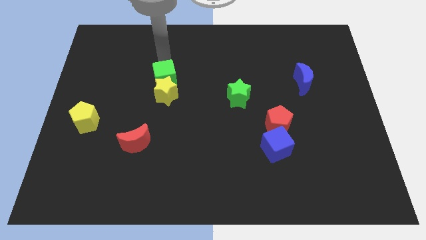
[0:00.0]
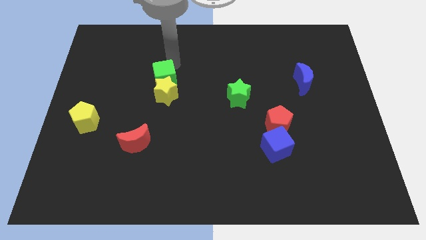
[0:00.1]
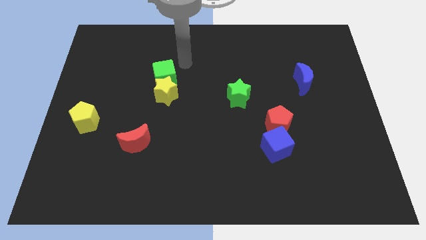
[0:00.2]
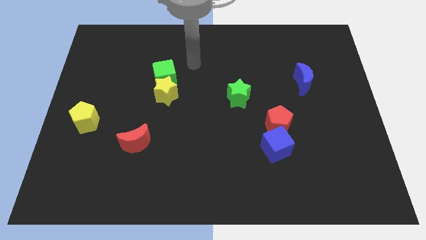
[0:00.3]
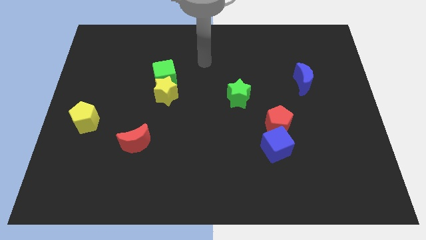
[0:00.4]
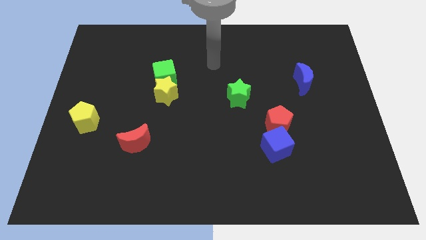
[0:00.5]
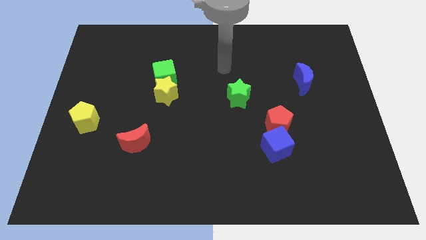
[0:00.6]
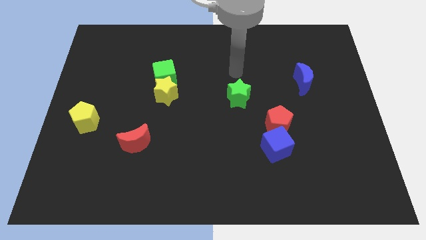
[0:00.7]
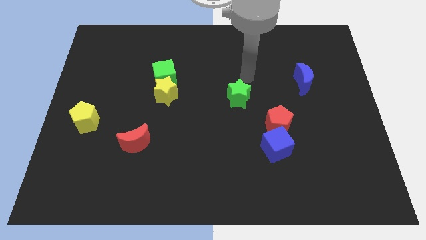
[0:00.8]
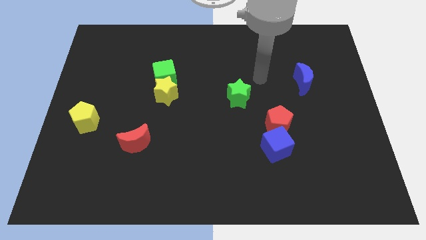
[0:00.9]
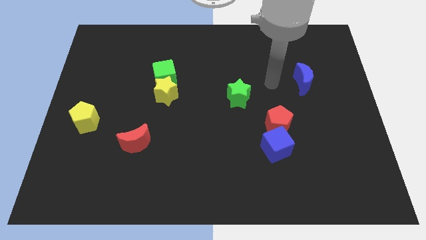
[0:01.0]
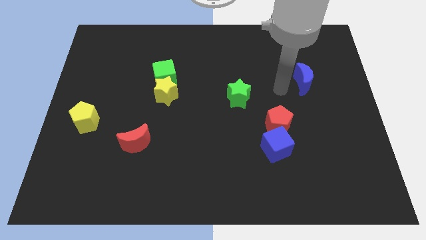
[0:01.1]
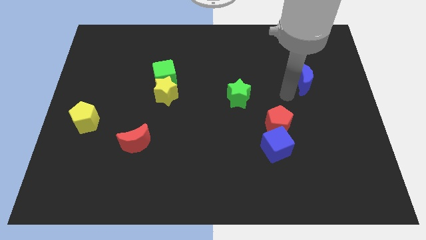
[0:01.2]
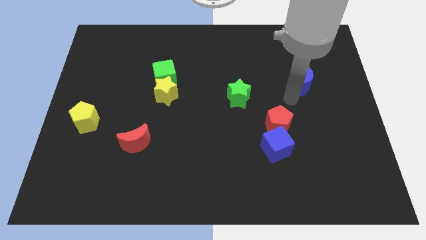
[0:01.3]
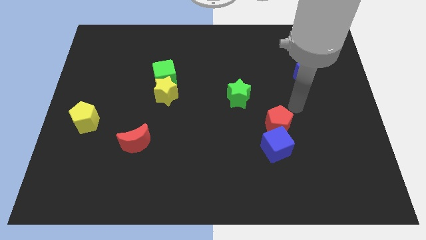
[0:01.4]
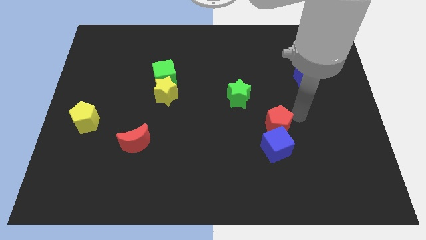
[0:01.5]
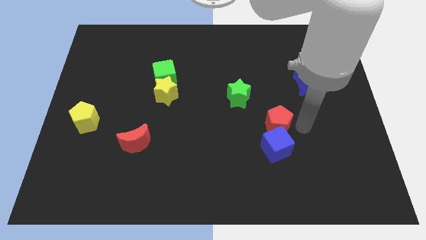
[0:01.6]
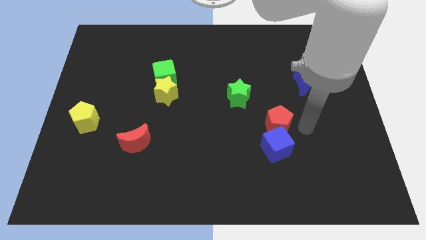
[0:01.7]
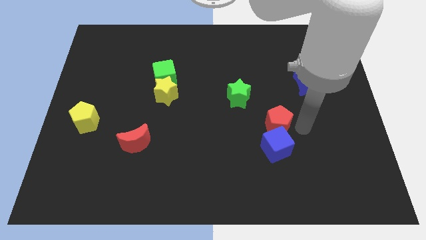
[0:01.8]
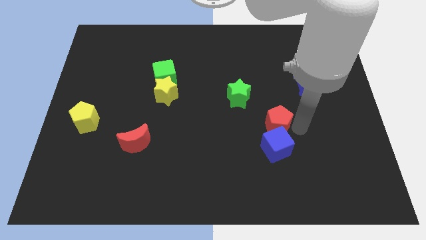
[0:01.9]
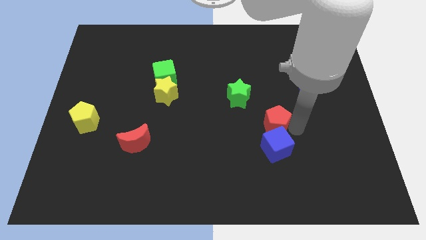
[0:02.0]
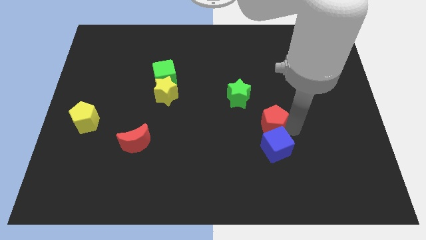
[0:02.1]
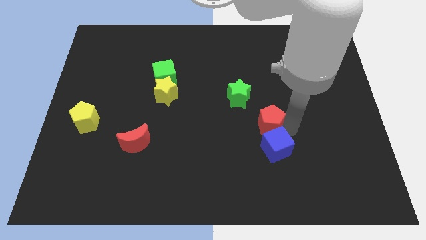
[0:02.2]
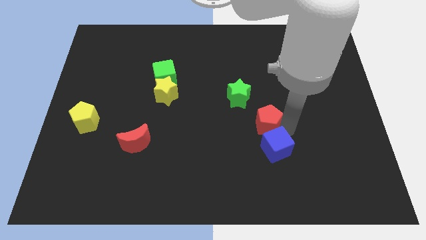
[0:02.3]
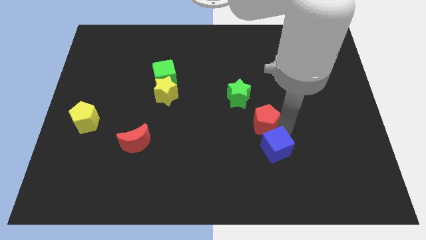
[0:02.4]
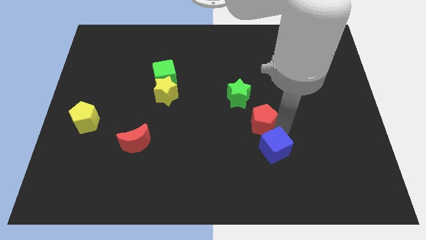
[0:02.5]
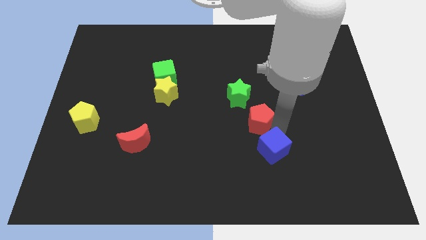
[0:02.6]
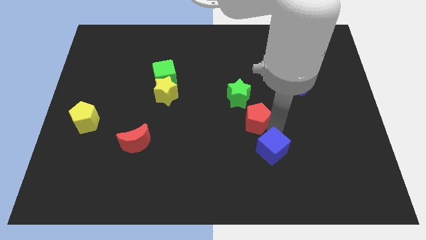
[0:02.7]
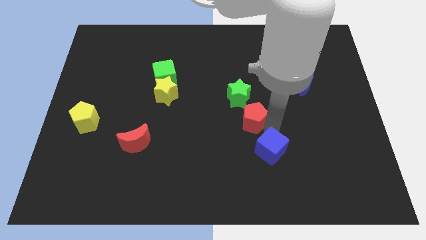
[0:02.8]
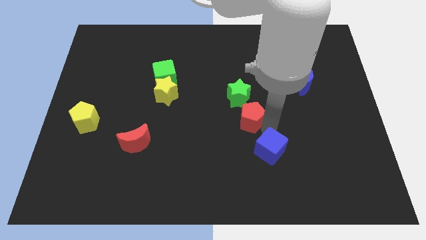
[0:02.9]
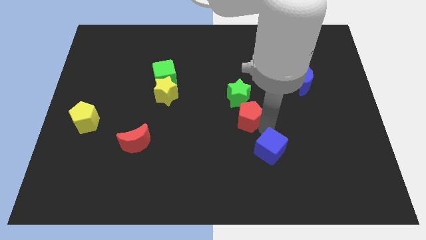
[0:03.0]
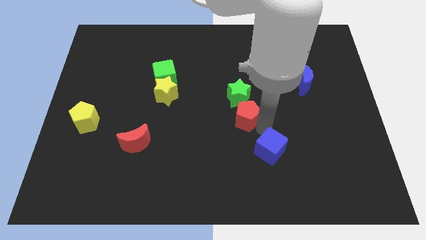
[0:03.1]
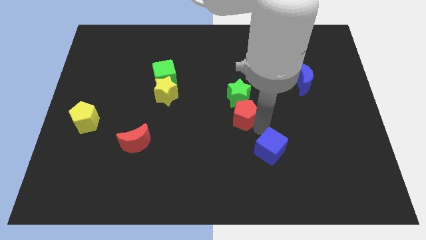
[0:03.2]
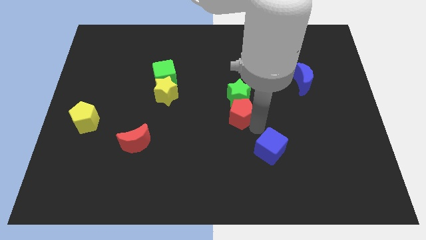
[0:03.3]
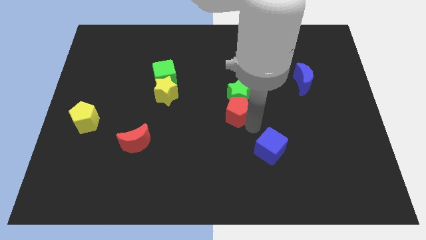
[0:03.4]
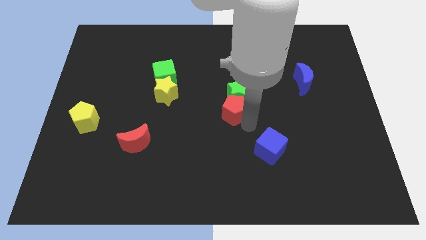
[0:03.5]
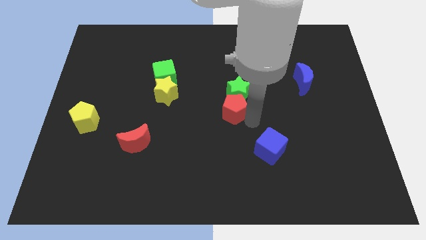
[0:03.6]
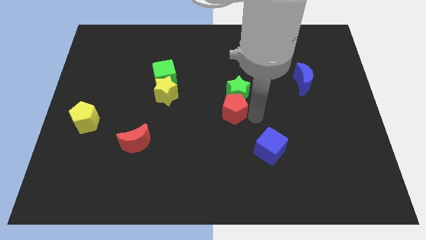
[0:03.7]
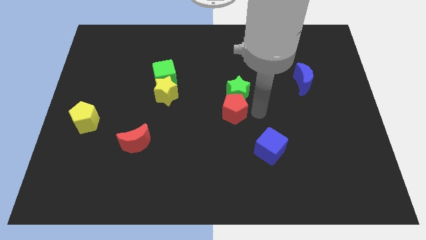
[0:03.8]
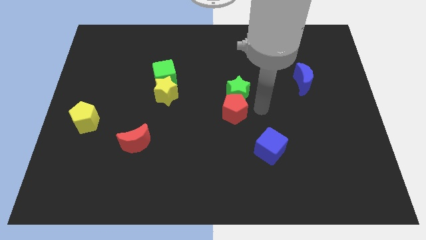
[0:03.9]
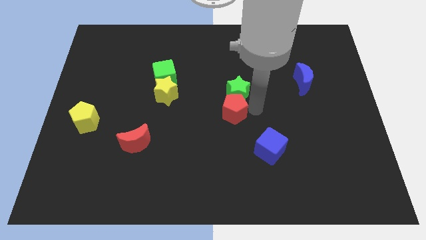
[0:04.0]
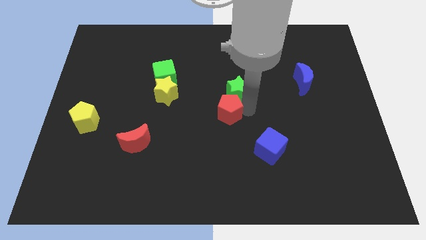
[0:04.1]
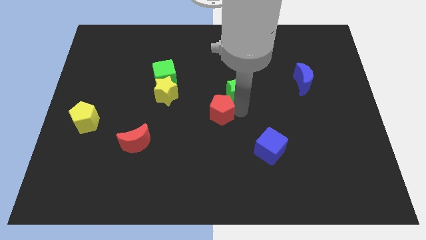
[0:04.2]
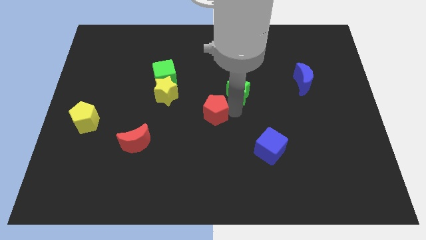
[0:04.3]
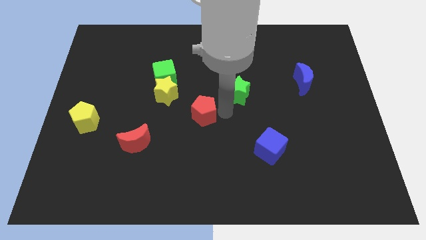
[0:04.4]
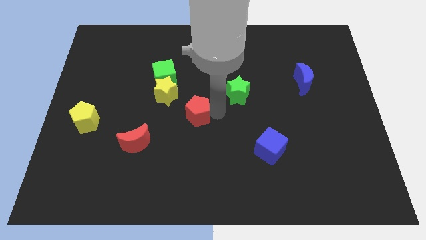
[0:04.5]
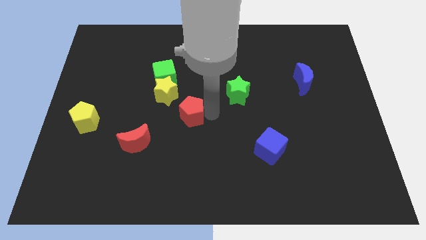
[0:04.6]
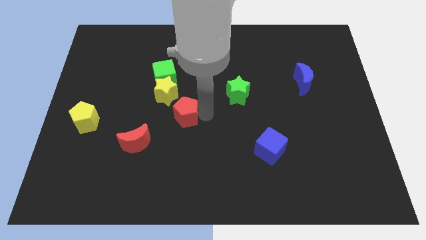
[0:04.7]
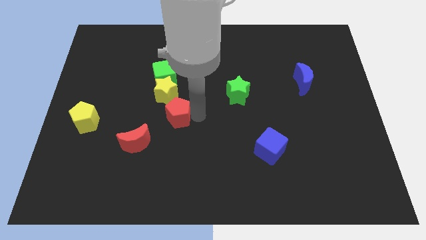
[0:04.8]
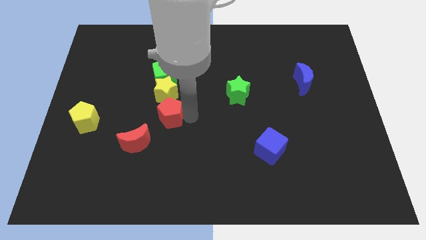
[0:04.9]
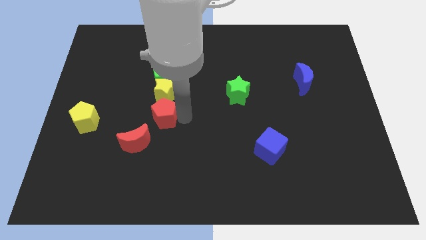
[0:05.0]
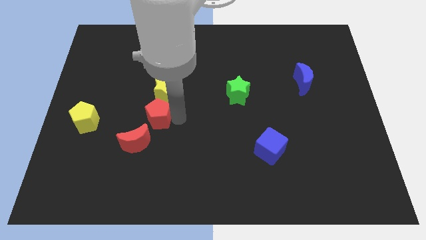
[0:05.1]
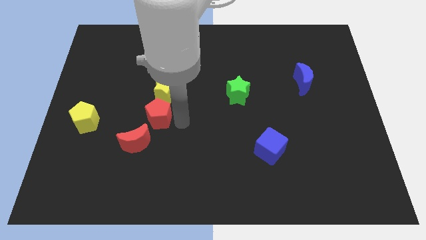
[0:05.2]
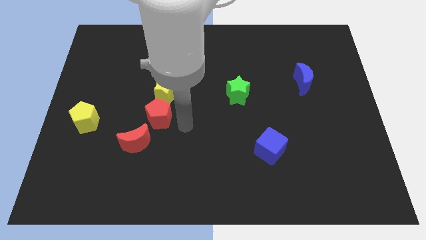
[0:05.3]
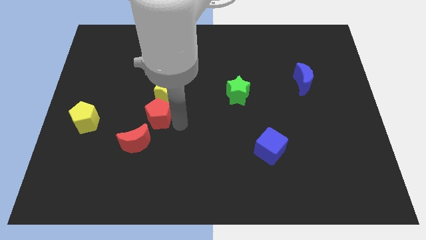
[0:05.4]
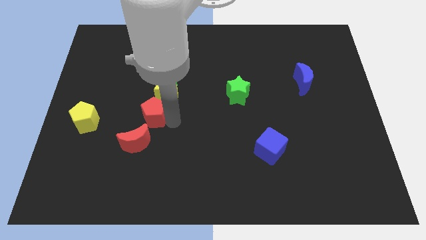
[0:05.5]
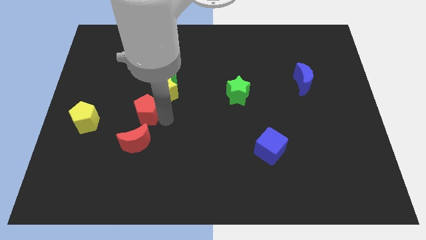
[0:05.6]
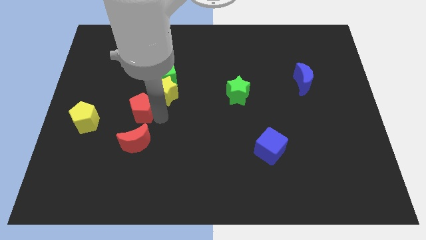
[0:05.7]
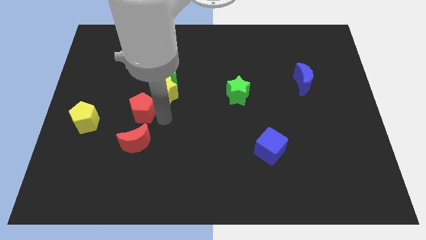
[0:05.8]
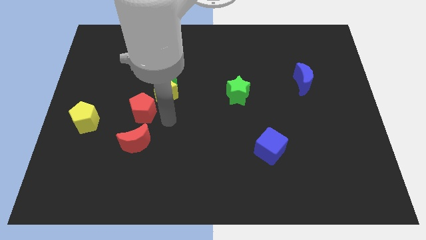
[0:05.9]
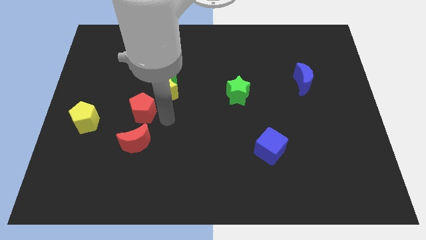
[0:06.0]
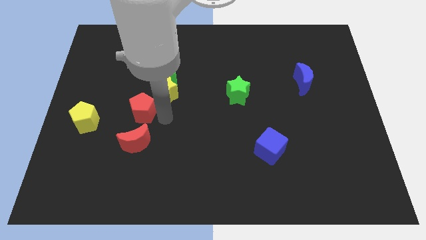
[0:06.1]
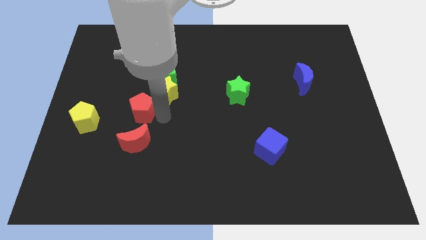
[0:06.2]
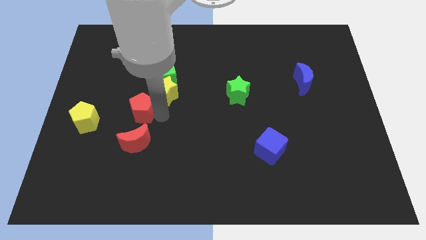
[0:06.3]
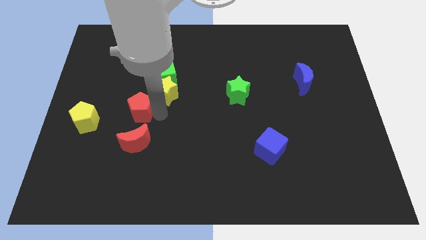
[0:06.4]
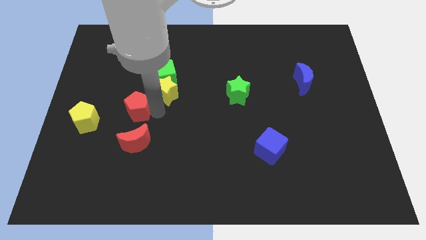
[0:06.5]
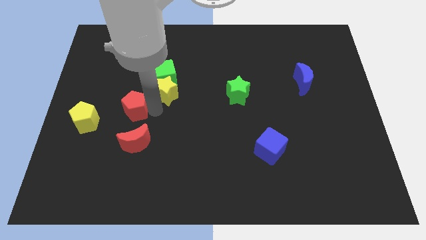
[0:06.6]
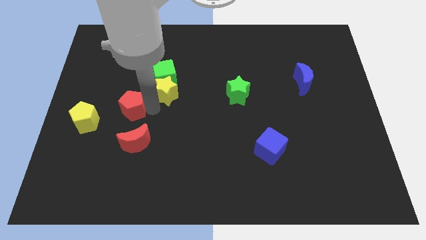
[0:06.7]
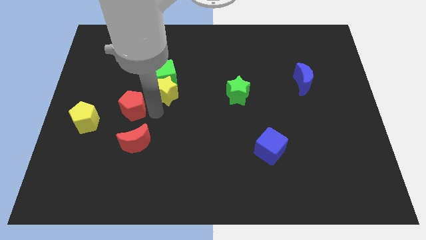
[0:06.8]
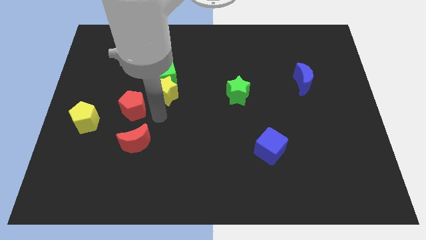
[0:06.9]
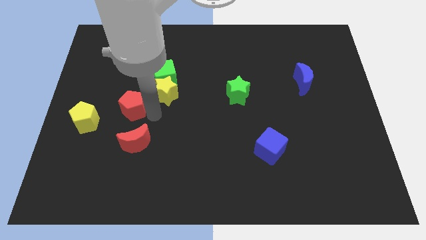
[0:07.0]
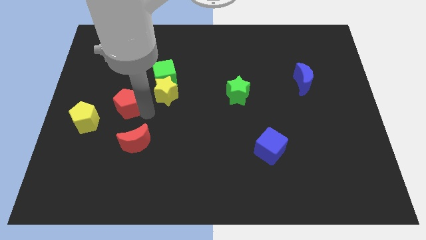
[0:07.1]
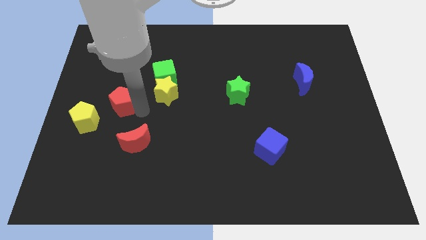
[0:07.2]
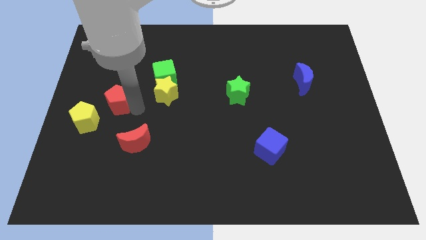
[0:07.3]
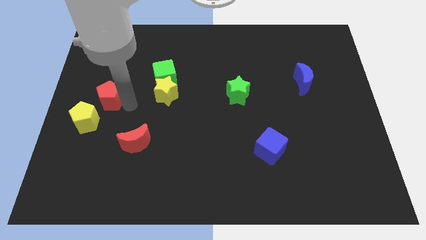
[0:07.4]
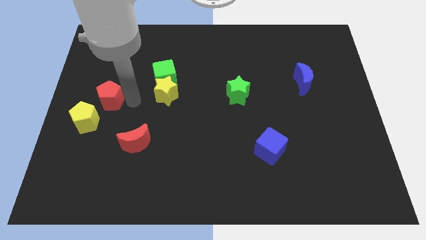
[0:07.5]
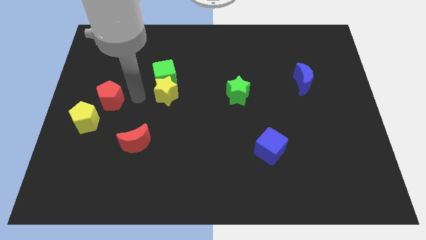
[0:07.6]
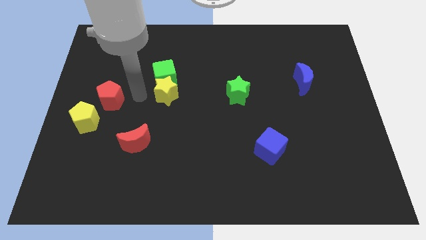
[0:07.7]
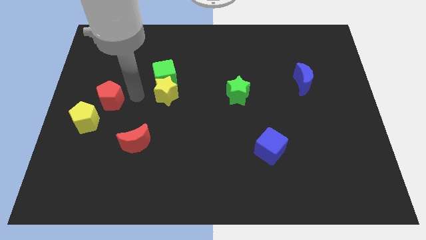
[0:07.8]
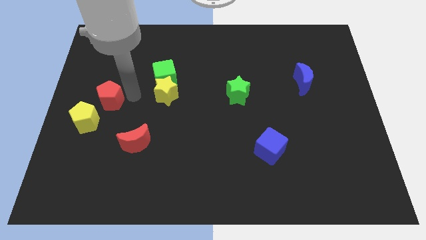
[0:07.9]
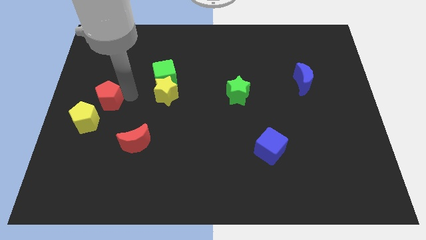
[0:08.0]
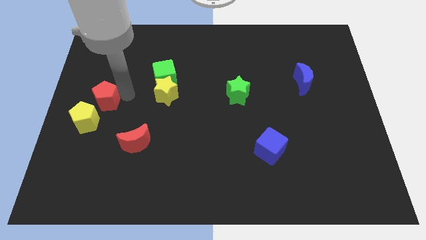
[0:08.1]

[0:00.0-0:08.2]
put the red pentagon to the left side
